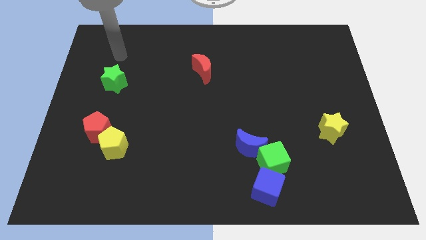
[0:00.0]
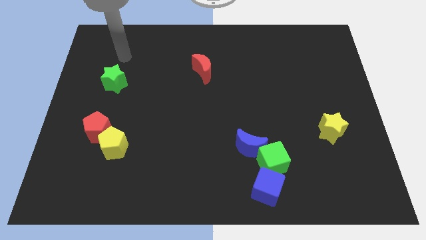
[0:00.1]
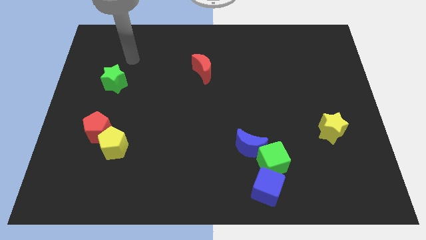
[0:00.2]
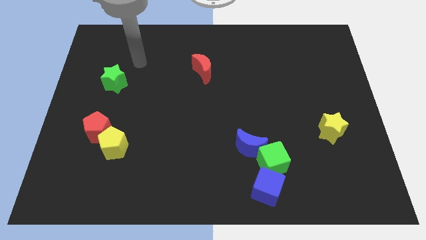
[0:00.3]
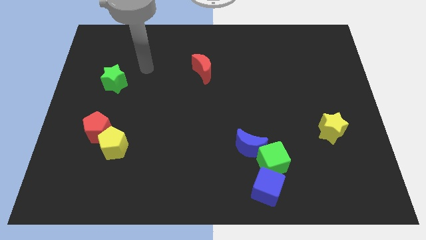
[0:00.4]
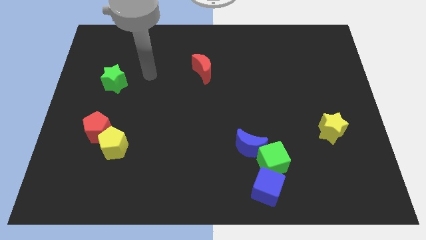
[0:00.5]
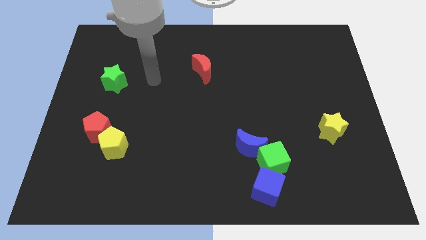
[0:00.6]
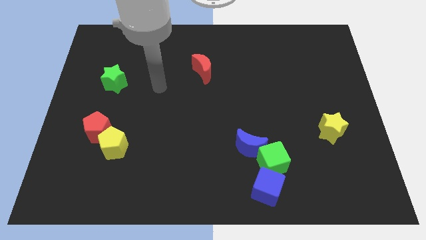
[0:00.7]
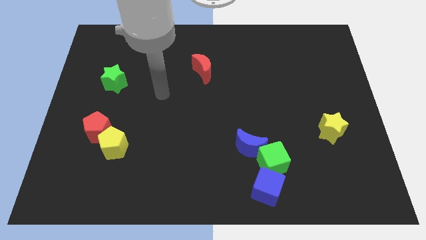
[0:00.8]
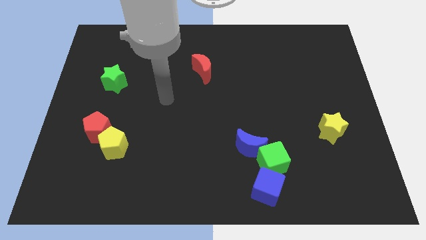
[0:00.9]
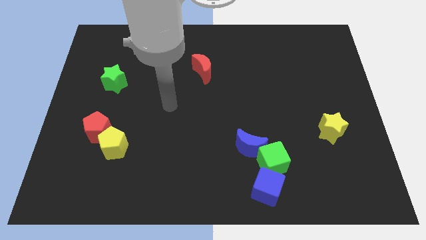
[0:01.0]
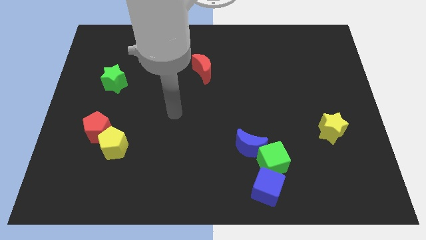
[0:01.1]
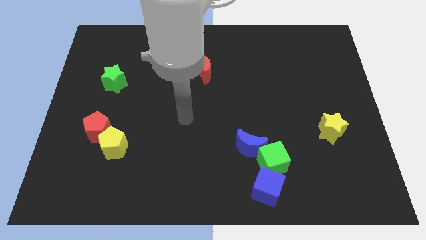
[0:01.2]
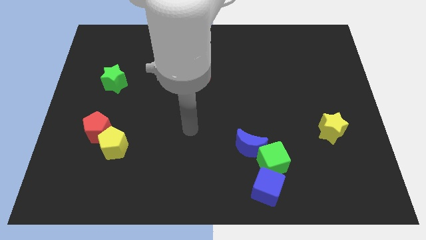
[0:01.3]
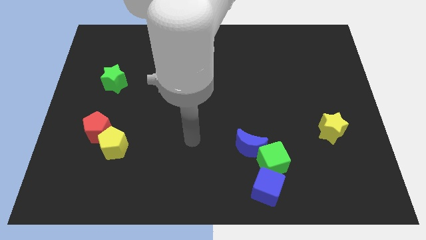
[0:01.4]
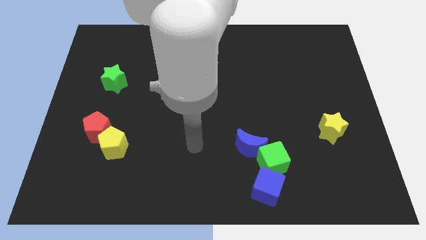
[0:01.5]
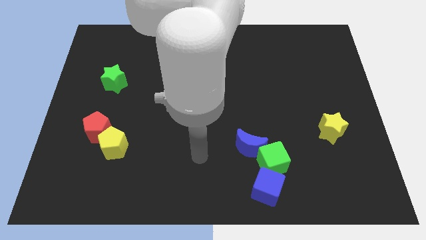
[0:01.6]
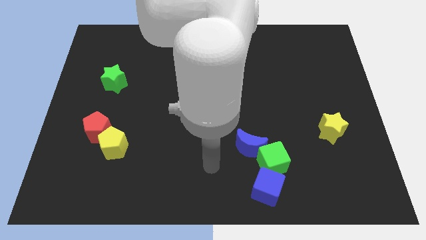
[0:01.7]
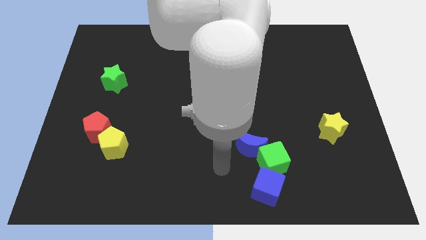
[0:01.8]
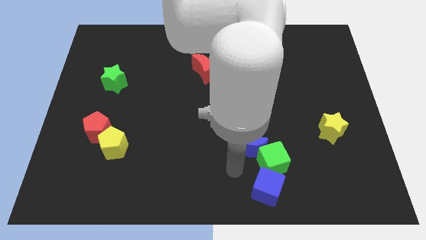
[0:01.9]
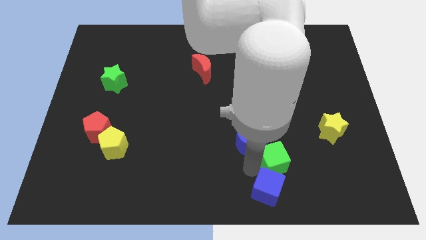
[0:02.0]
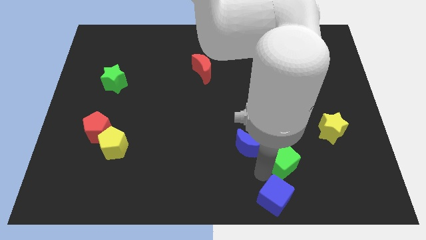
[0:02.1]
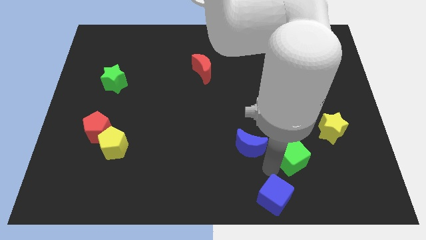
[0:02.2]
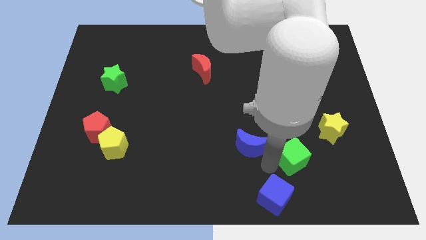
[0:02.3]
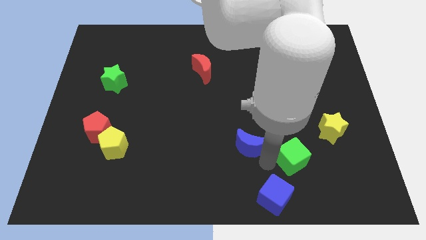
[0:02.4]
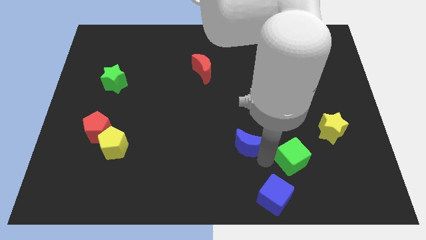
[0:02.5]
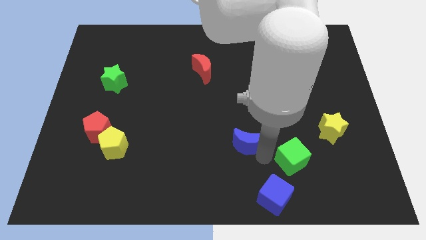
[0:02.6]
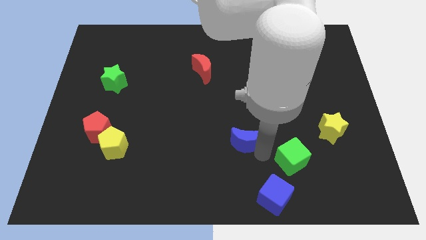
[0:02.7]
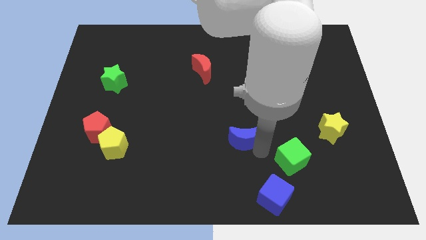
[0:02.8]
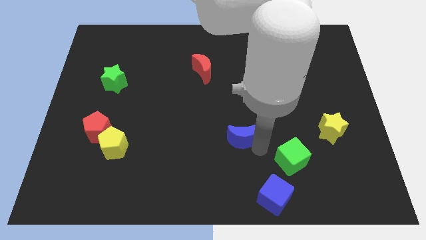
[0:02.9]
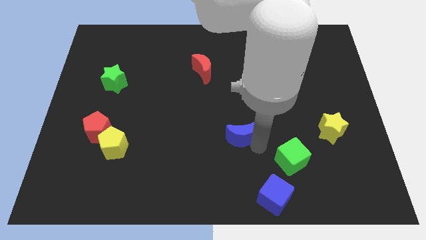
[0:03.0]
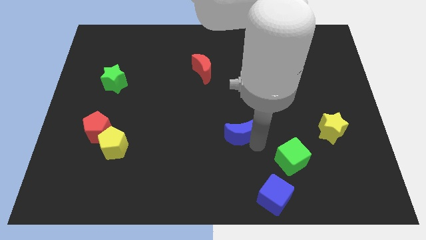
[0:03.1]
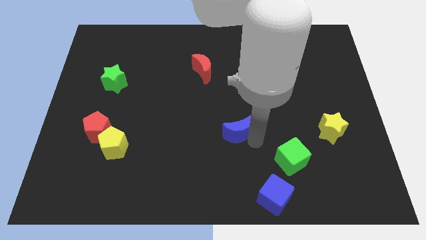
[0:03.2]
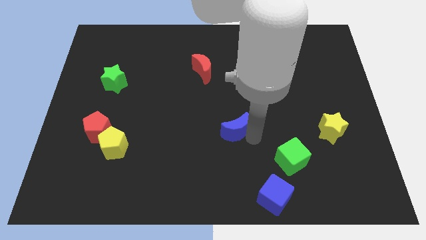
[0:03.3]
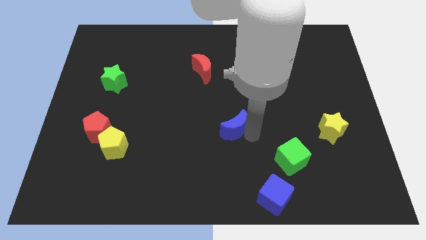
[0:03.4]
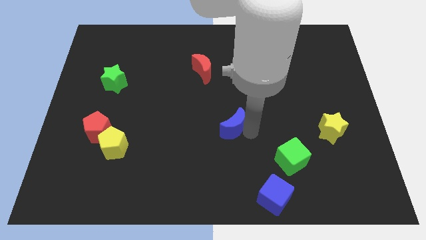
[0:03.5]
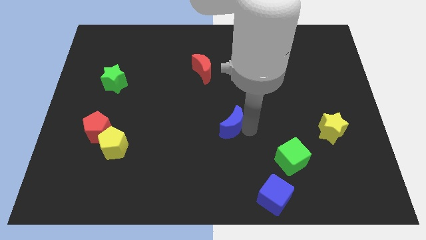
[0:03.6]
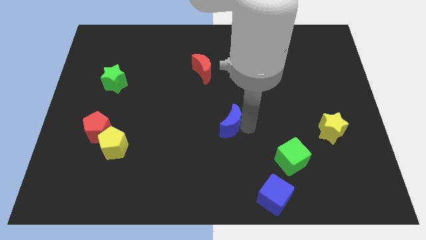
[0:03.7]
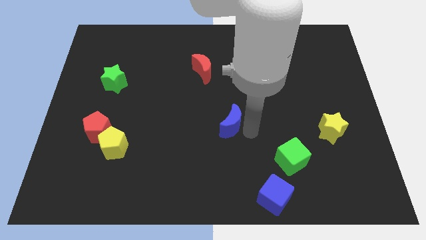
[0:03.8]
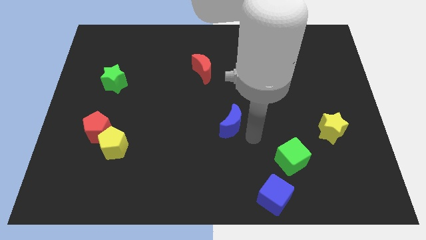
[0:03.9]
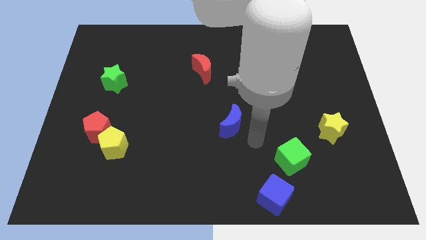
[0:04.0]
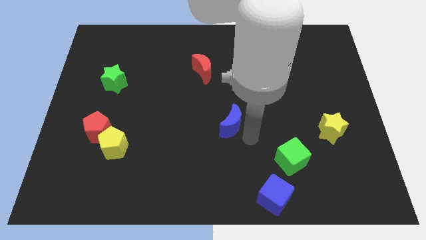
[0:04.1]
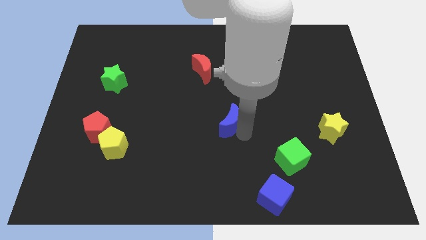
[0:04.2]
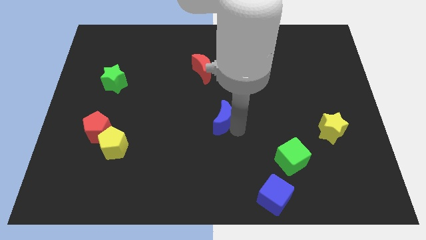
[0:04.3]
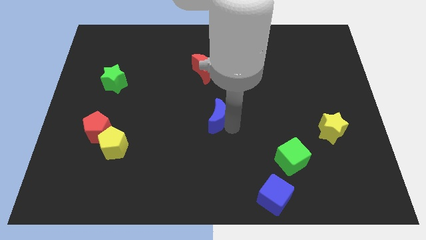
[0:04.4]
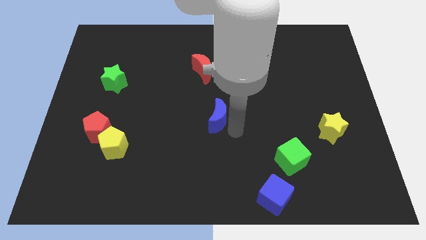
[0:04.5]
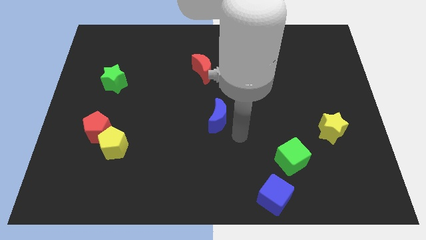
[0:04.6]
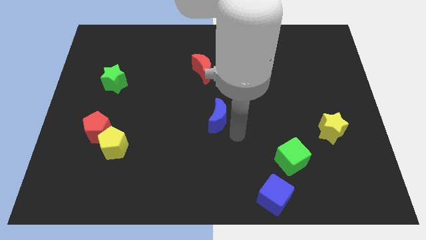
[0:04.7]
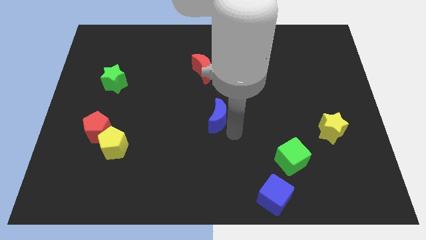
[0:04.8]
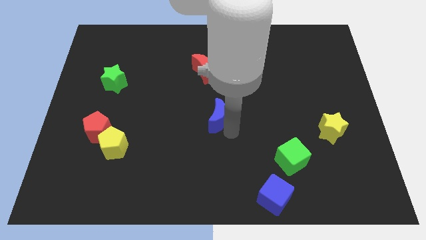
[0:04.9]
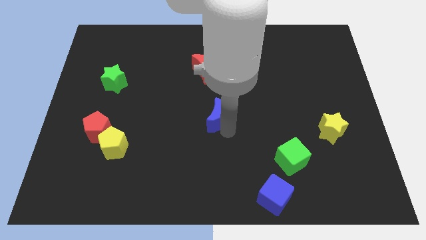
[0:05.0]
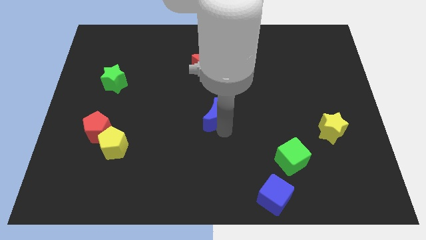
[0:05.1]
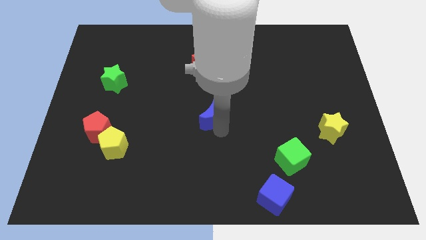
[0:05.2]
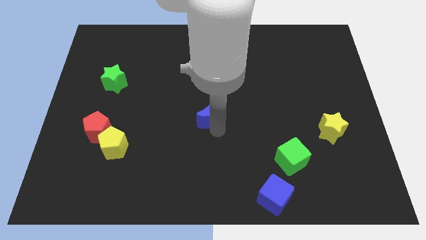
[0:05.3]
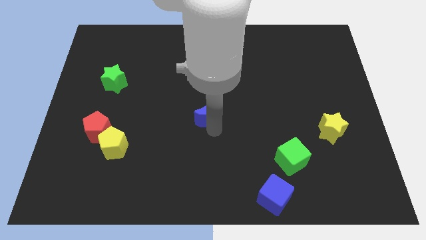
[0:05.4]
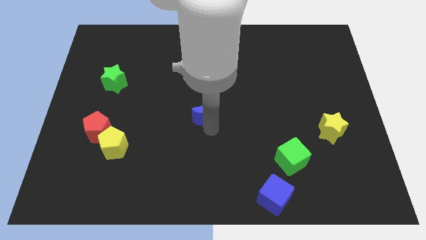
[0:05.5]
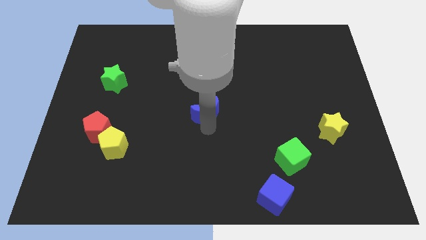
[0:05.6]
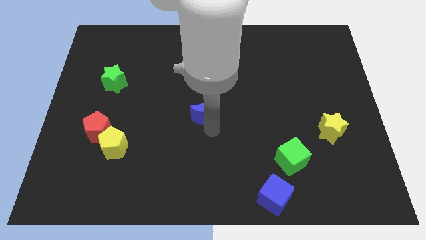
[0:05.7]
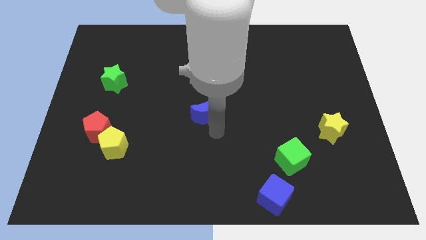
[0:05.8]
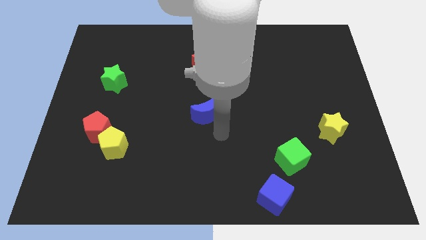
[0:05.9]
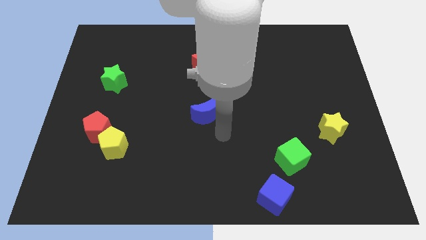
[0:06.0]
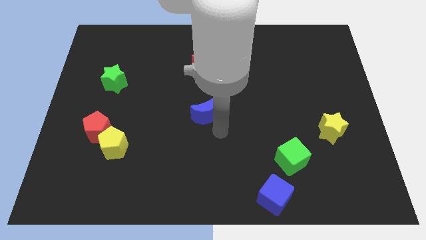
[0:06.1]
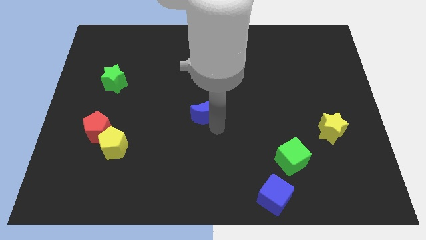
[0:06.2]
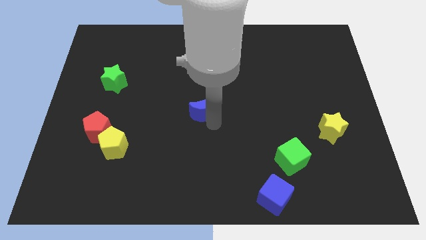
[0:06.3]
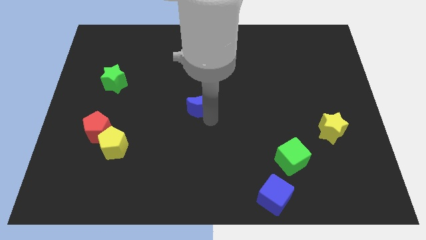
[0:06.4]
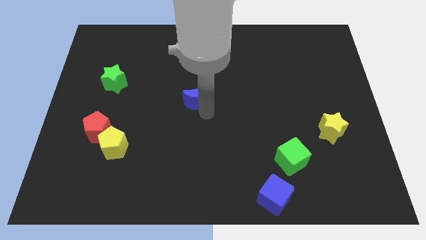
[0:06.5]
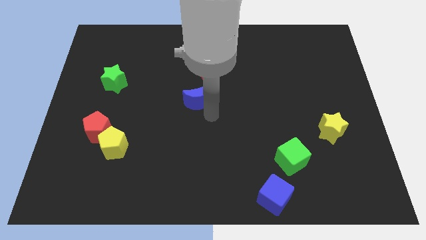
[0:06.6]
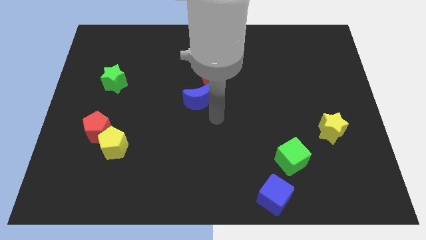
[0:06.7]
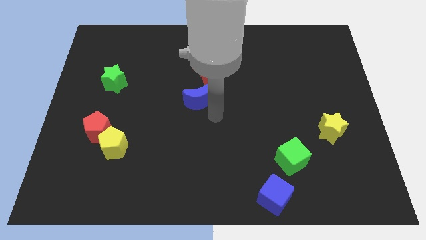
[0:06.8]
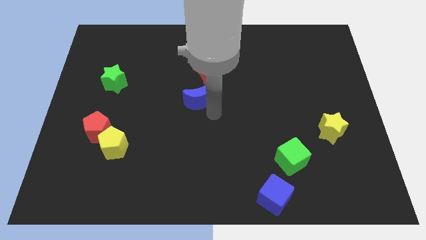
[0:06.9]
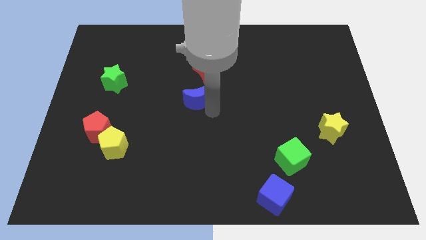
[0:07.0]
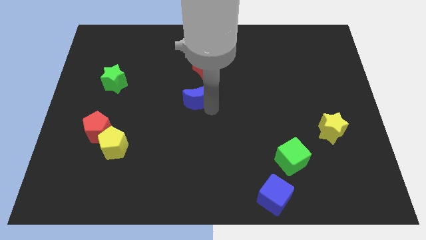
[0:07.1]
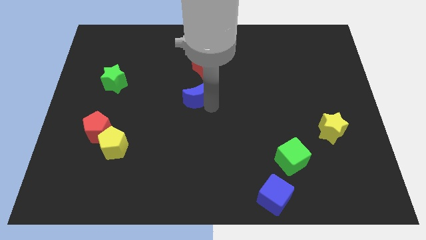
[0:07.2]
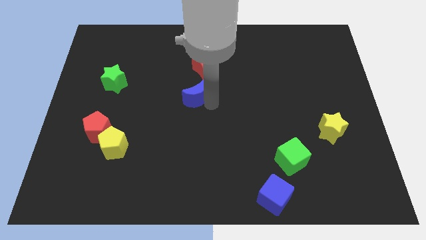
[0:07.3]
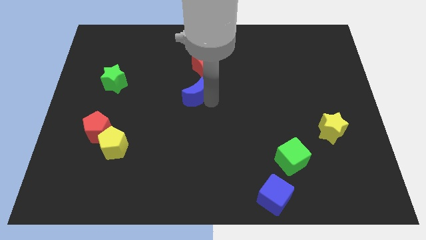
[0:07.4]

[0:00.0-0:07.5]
put the blue moon to the bottom left side of the red moon

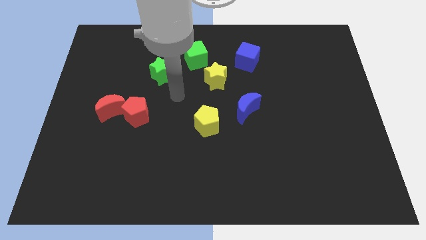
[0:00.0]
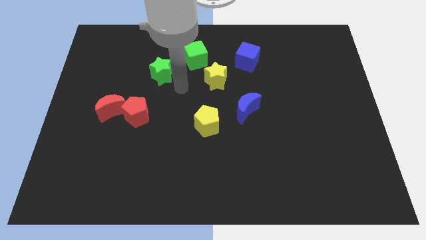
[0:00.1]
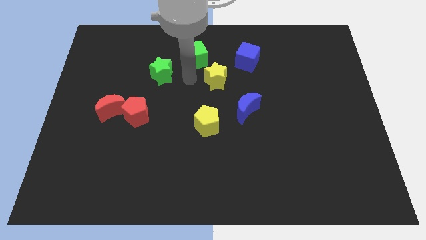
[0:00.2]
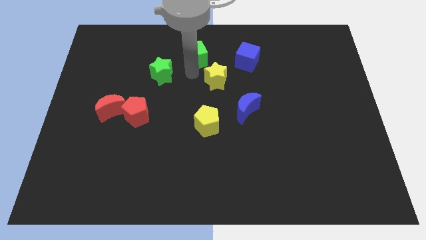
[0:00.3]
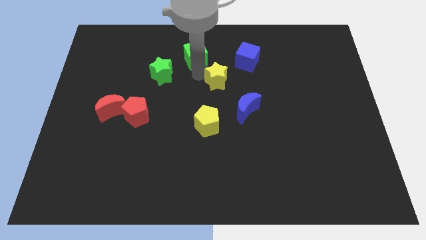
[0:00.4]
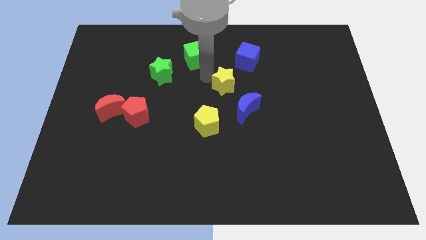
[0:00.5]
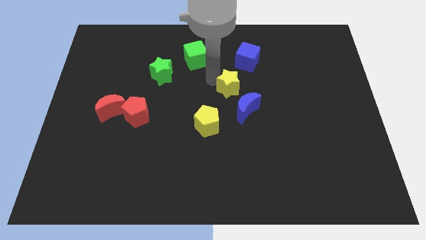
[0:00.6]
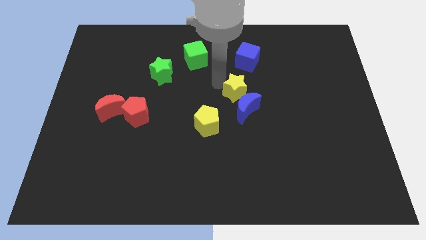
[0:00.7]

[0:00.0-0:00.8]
move the yellow star to the bottom of the blue cube
